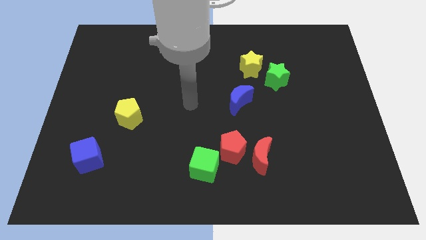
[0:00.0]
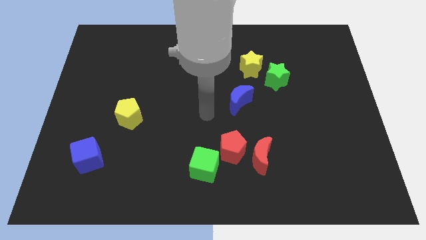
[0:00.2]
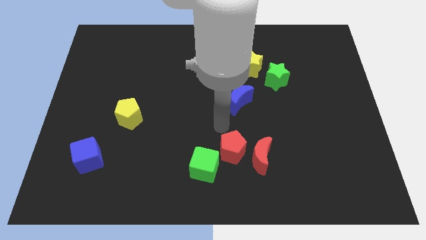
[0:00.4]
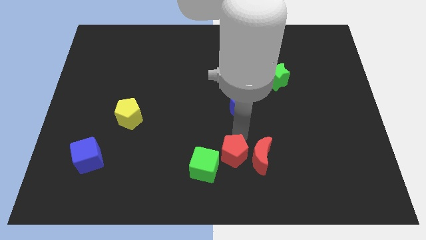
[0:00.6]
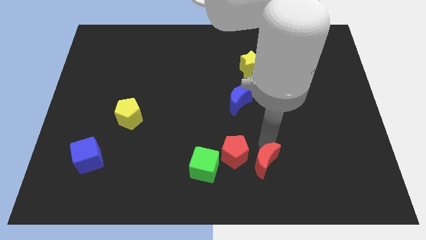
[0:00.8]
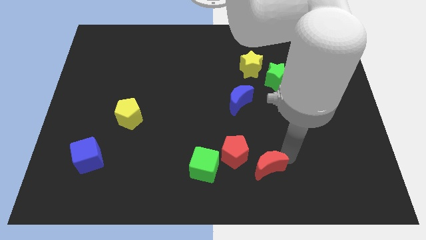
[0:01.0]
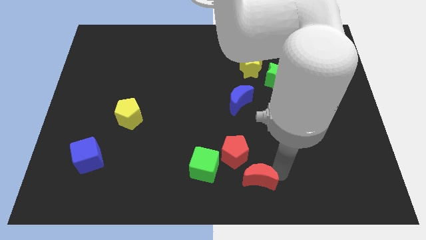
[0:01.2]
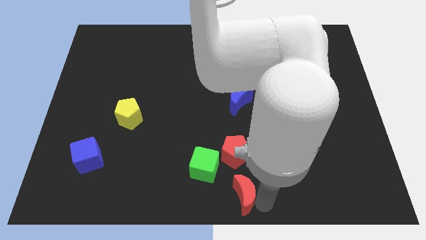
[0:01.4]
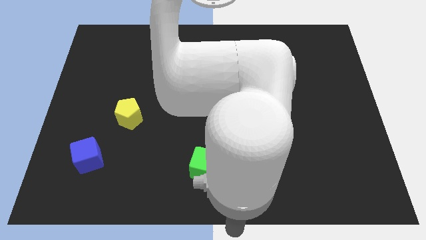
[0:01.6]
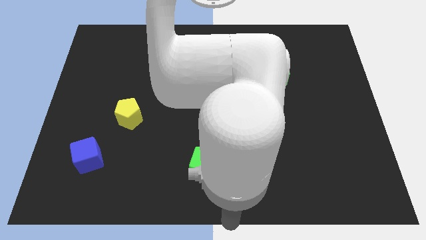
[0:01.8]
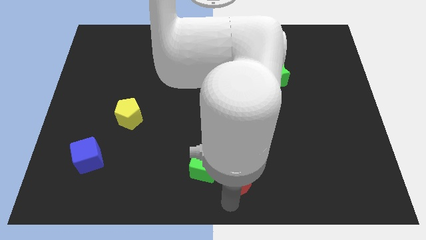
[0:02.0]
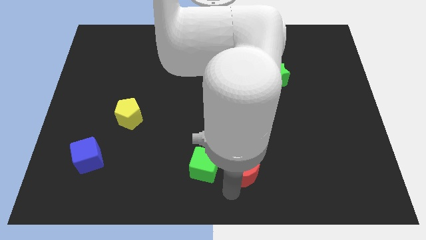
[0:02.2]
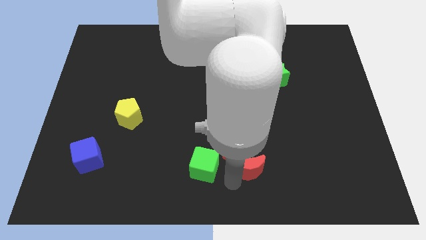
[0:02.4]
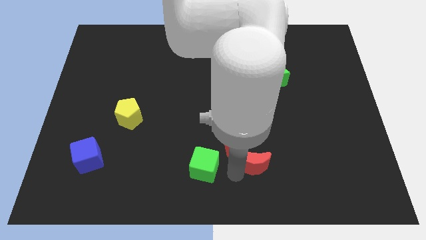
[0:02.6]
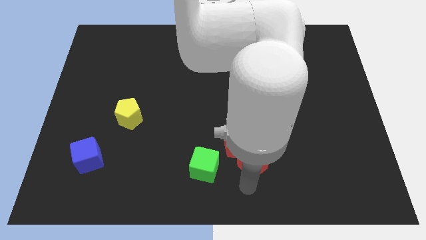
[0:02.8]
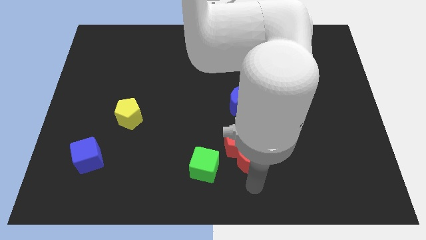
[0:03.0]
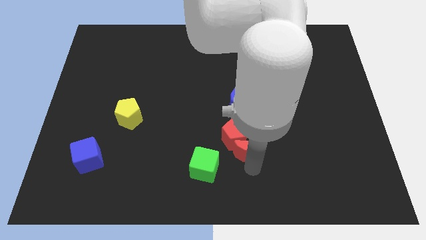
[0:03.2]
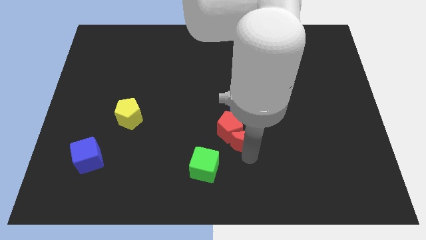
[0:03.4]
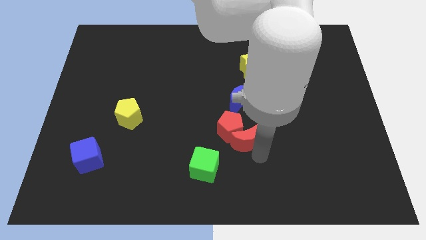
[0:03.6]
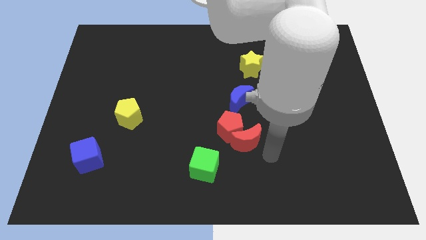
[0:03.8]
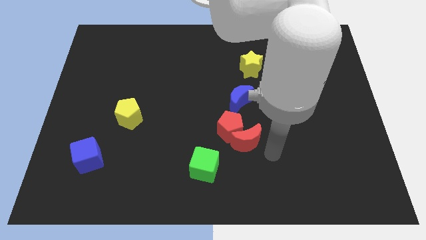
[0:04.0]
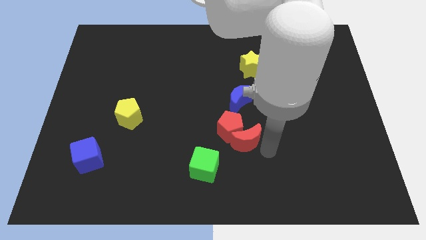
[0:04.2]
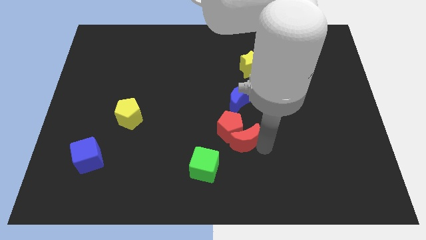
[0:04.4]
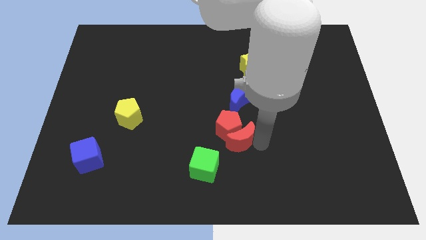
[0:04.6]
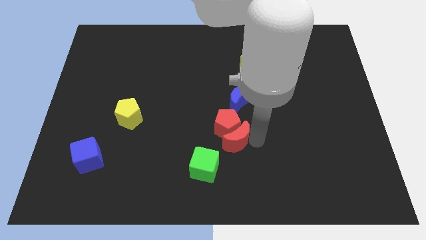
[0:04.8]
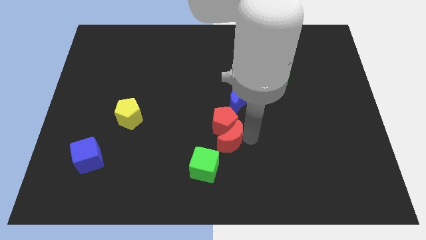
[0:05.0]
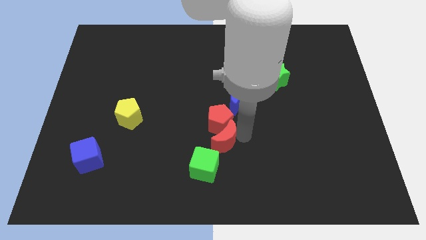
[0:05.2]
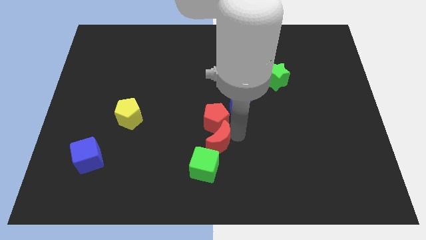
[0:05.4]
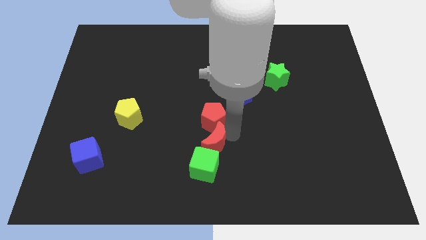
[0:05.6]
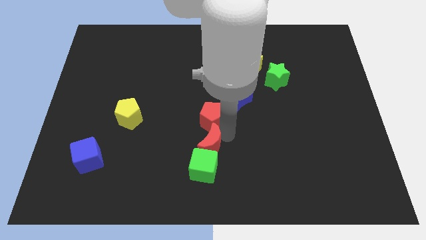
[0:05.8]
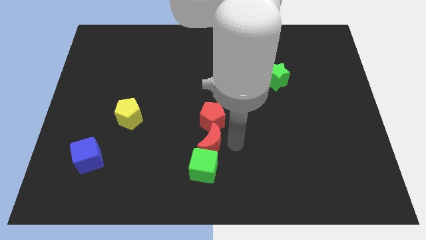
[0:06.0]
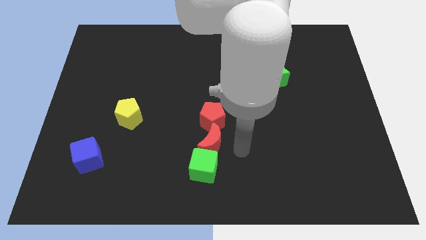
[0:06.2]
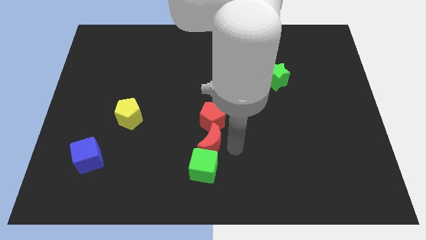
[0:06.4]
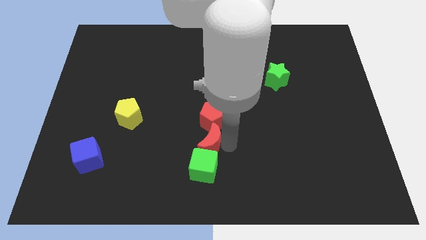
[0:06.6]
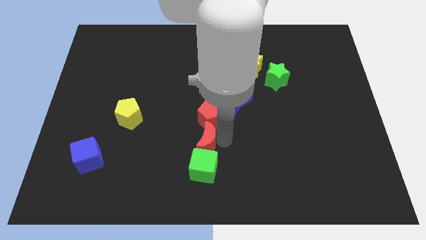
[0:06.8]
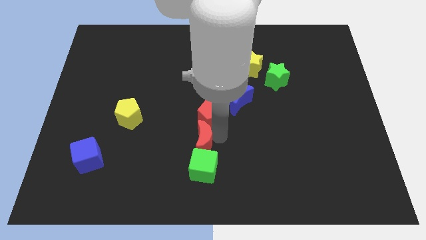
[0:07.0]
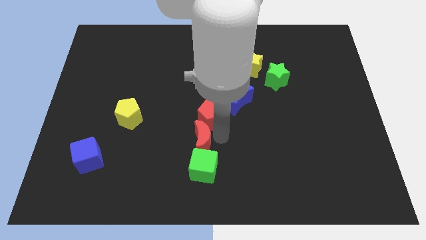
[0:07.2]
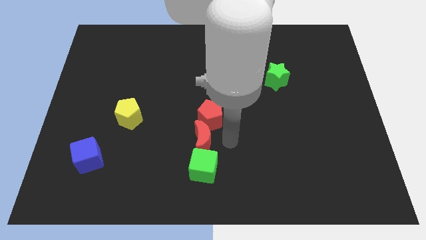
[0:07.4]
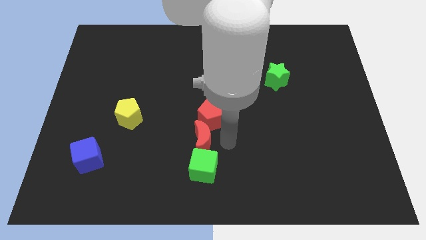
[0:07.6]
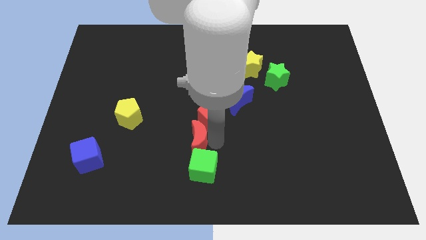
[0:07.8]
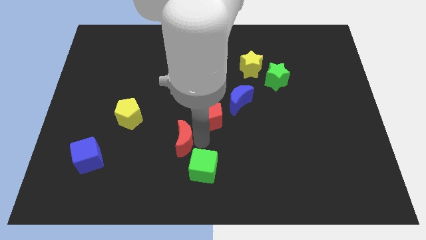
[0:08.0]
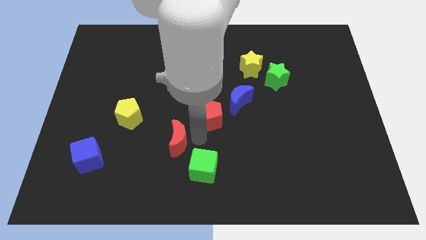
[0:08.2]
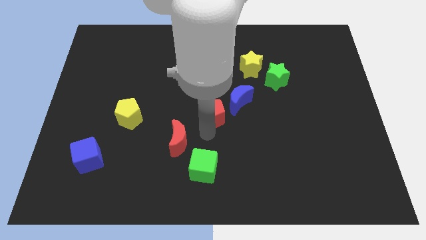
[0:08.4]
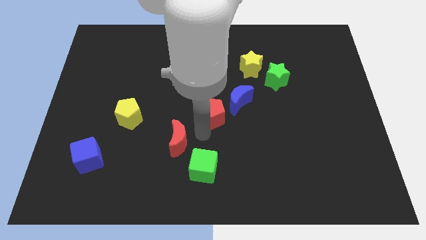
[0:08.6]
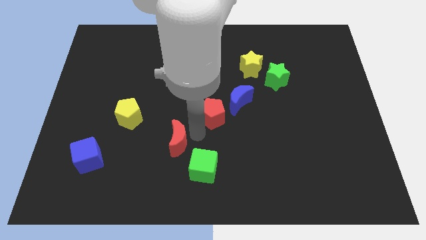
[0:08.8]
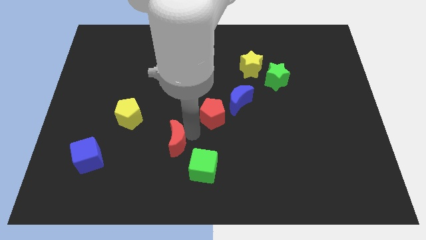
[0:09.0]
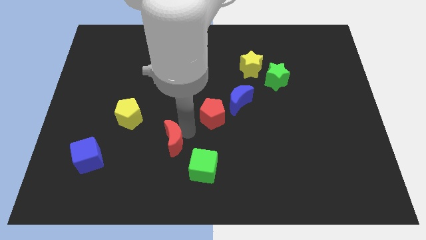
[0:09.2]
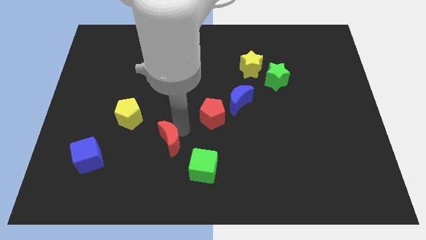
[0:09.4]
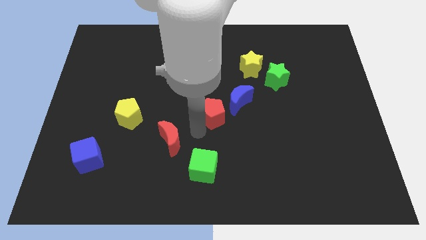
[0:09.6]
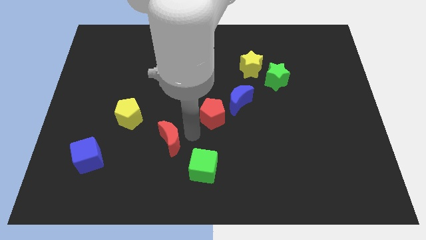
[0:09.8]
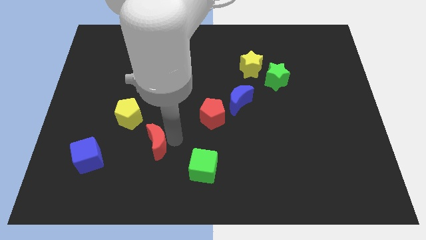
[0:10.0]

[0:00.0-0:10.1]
slide the red moon left

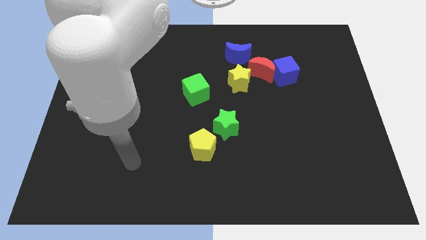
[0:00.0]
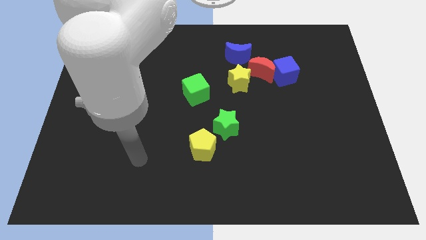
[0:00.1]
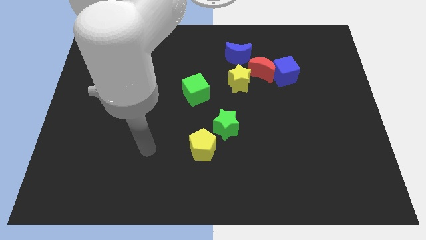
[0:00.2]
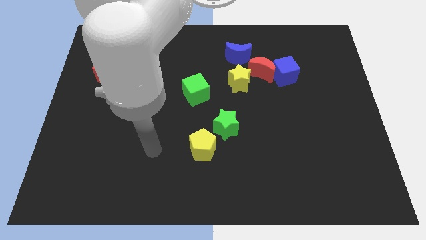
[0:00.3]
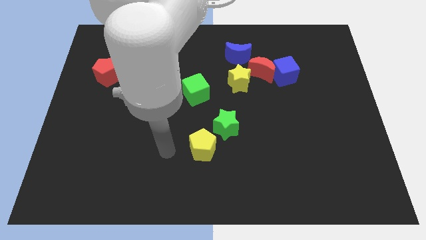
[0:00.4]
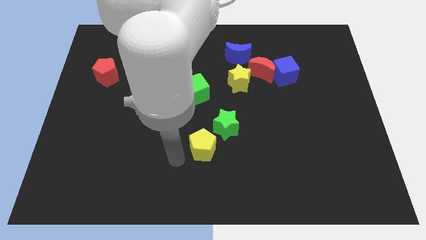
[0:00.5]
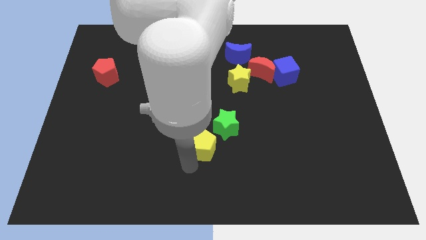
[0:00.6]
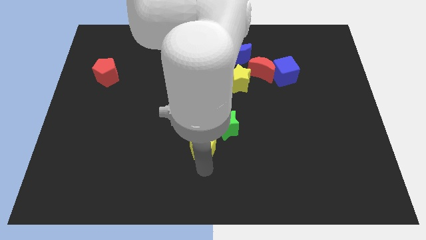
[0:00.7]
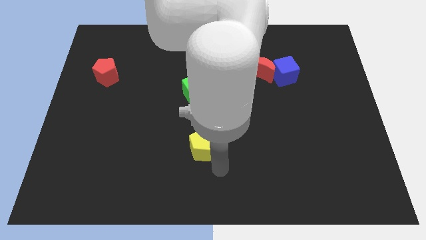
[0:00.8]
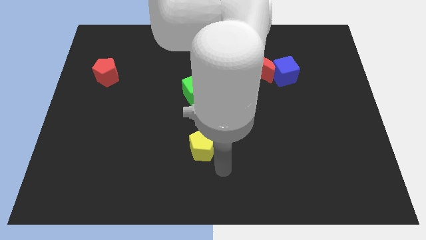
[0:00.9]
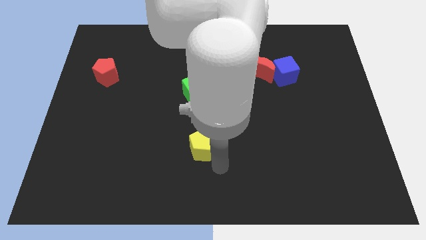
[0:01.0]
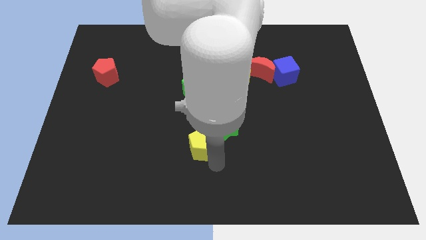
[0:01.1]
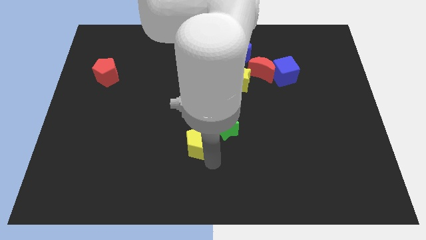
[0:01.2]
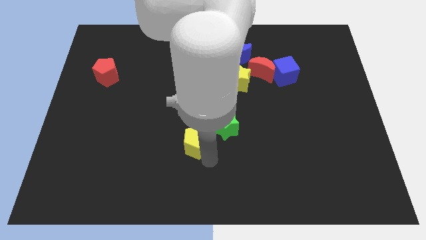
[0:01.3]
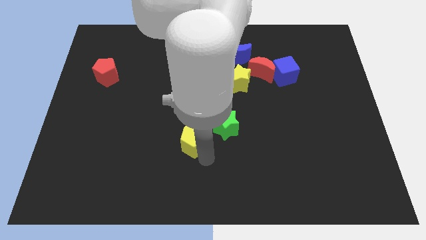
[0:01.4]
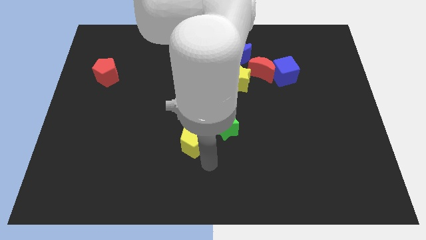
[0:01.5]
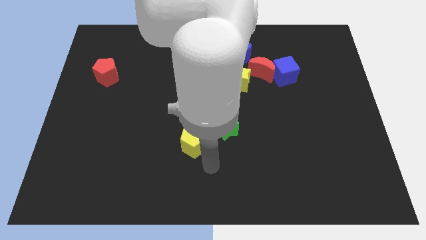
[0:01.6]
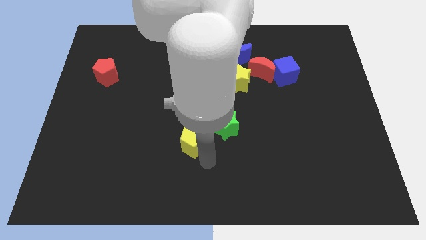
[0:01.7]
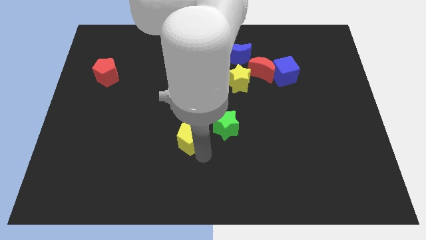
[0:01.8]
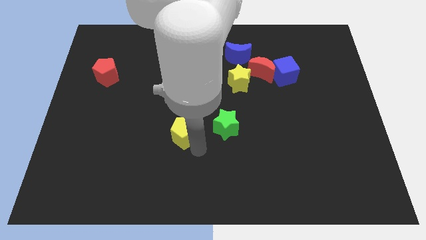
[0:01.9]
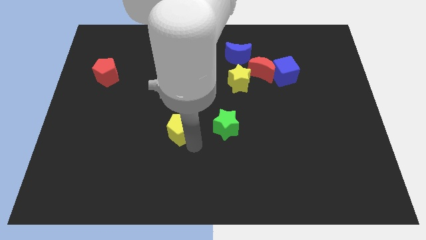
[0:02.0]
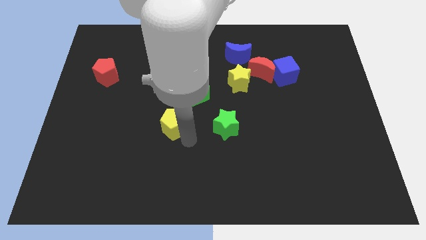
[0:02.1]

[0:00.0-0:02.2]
slightly move the yellow pentagon upwards and then left

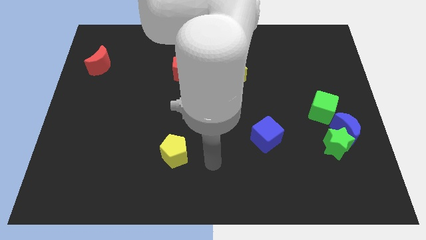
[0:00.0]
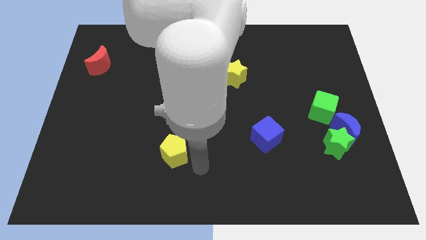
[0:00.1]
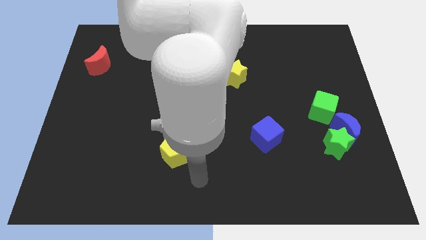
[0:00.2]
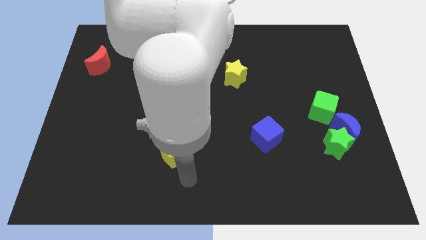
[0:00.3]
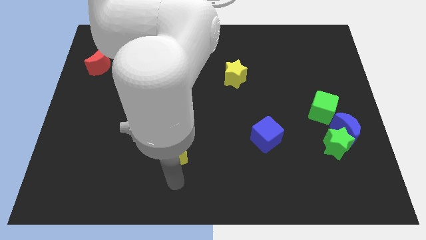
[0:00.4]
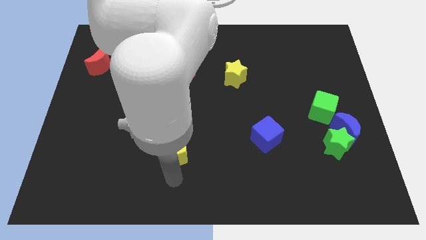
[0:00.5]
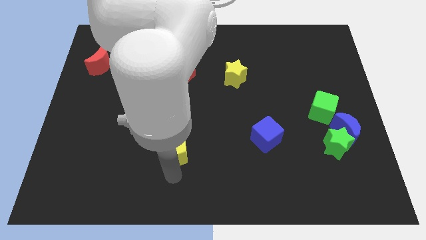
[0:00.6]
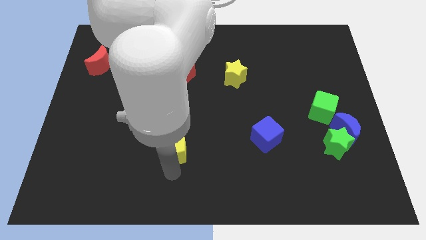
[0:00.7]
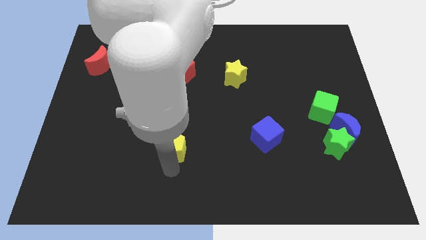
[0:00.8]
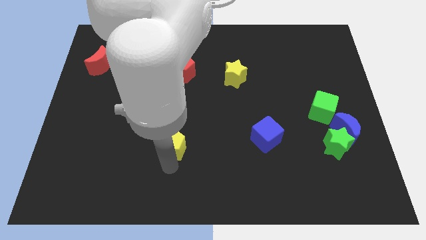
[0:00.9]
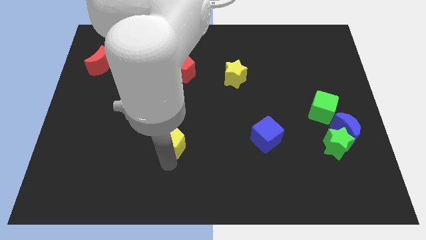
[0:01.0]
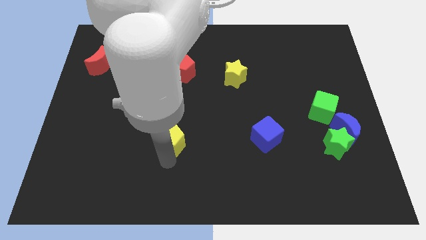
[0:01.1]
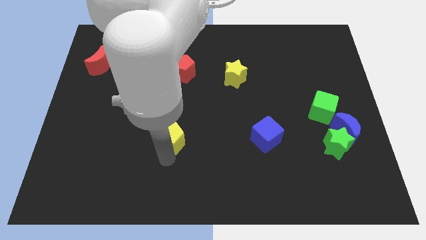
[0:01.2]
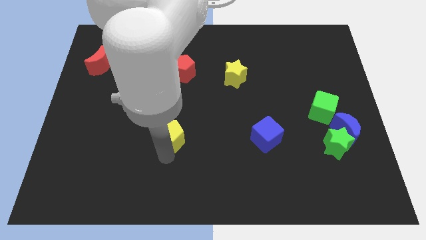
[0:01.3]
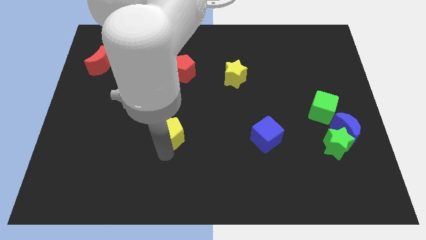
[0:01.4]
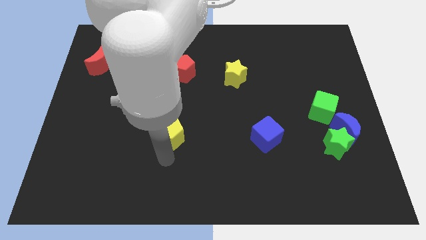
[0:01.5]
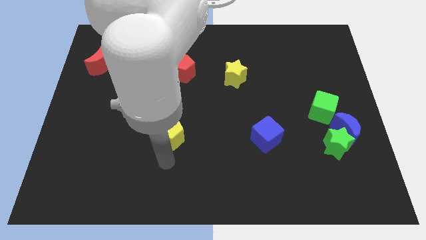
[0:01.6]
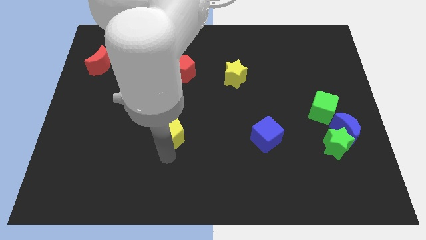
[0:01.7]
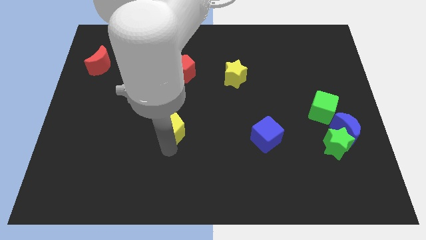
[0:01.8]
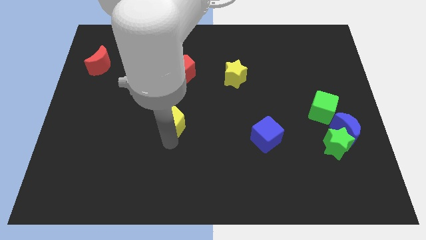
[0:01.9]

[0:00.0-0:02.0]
slightly push the yellow pentagon upwards
